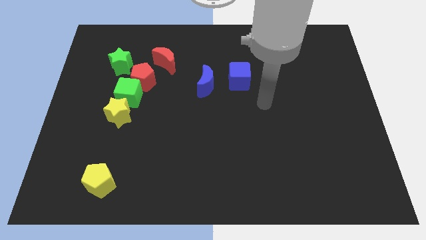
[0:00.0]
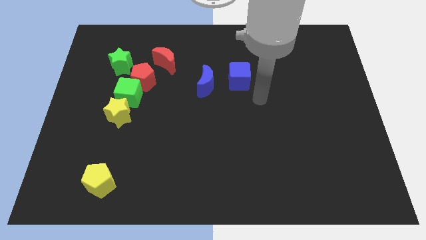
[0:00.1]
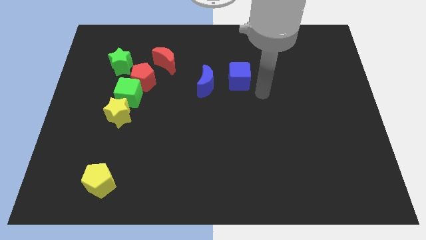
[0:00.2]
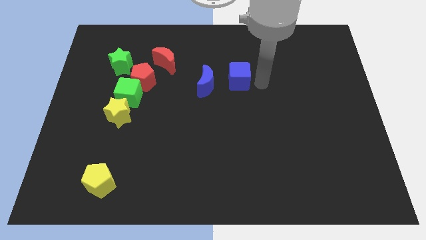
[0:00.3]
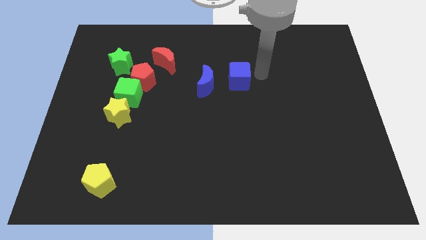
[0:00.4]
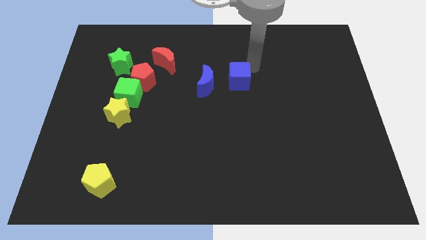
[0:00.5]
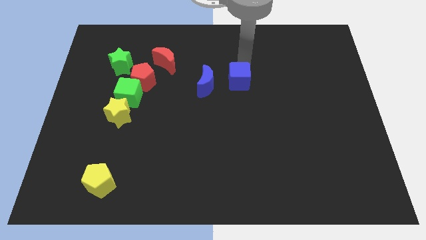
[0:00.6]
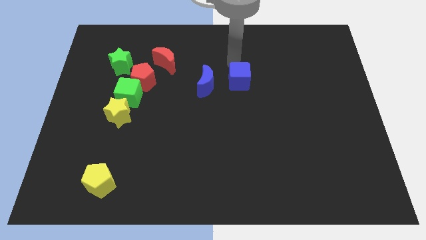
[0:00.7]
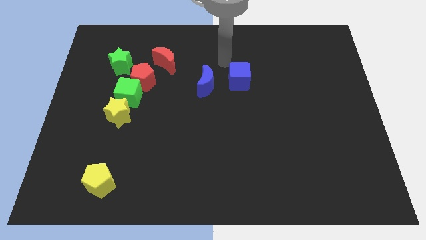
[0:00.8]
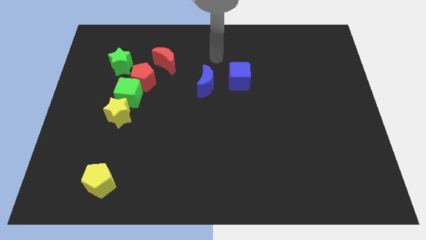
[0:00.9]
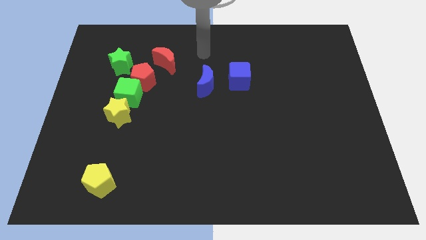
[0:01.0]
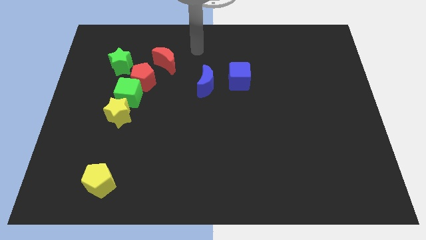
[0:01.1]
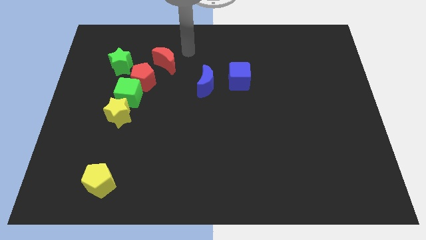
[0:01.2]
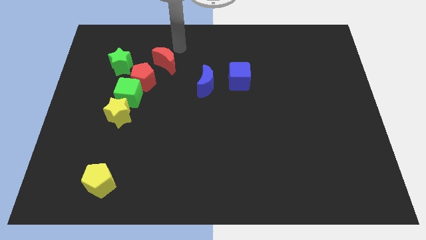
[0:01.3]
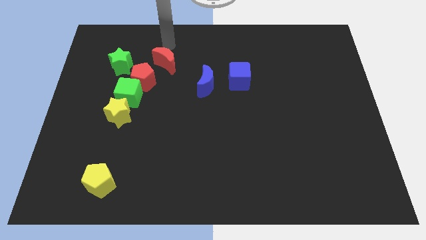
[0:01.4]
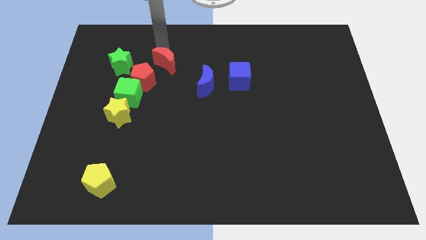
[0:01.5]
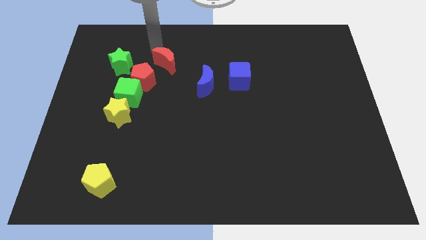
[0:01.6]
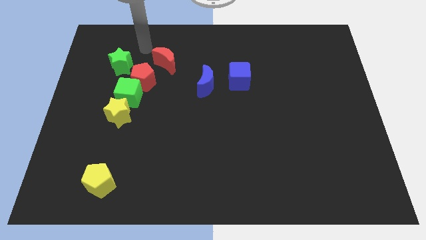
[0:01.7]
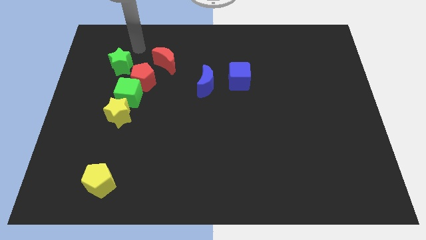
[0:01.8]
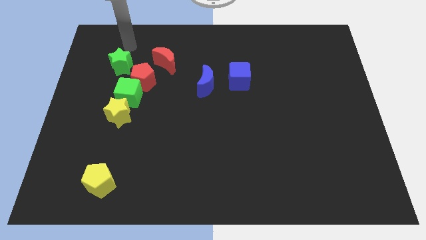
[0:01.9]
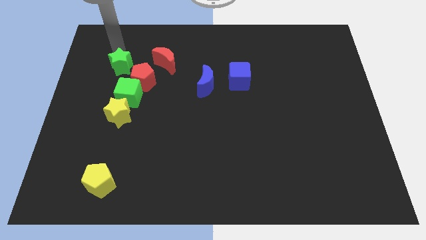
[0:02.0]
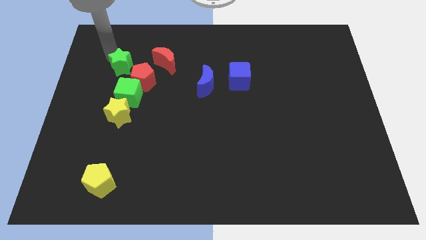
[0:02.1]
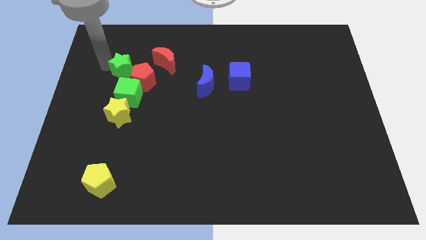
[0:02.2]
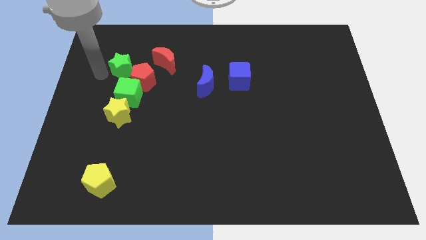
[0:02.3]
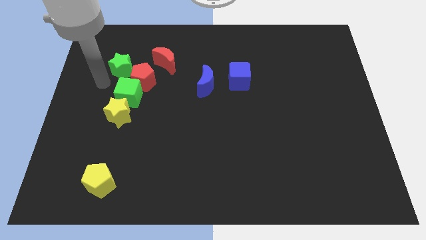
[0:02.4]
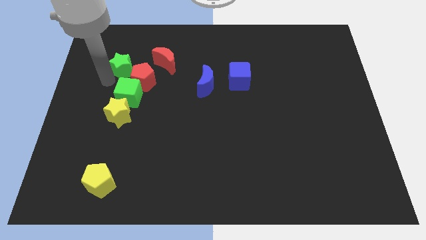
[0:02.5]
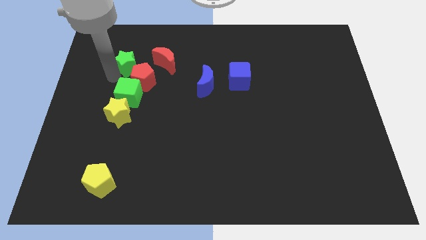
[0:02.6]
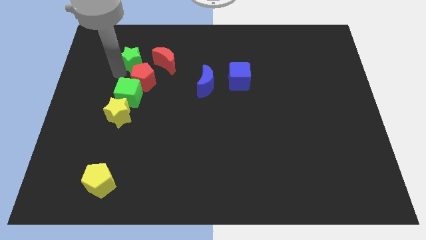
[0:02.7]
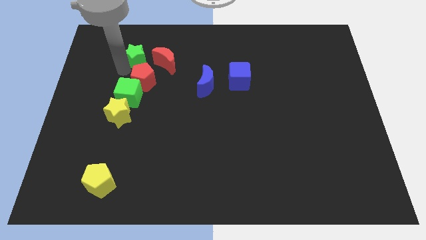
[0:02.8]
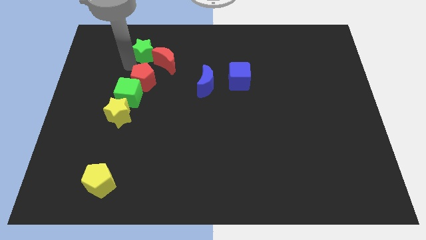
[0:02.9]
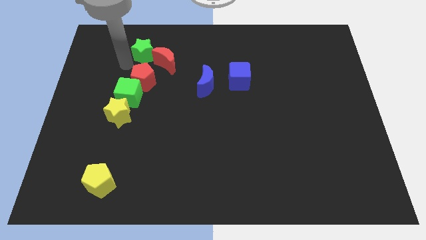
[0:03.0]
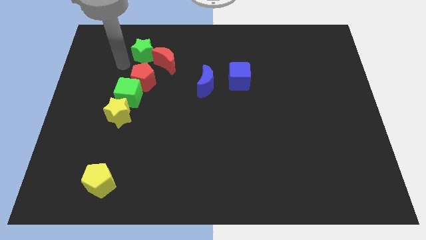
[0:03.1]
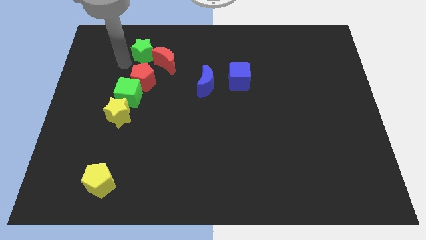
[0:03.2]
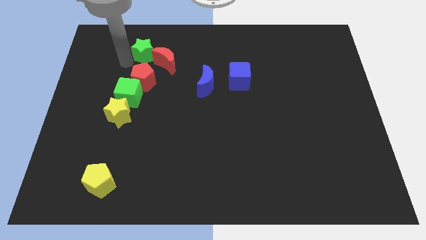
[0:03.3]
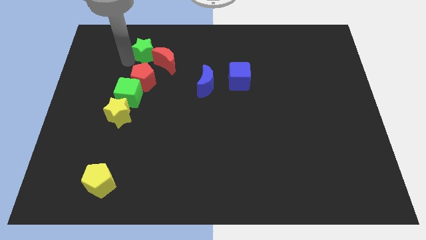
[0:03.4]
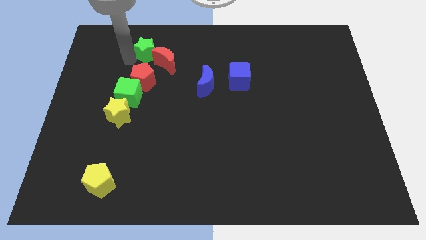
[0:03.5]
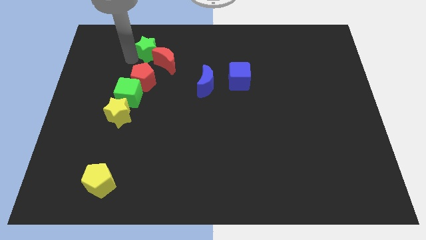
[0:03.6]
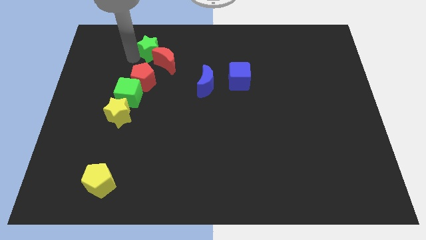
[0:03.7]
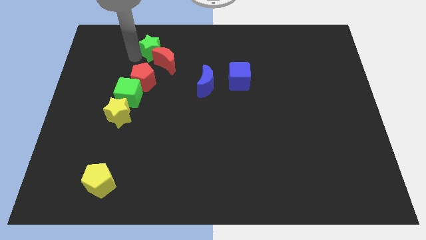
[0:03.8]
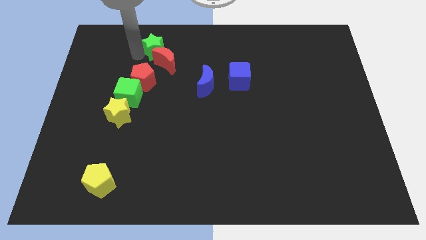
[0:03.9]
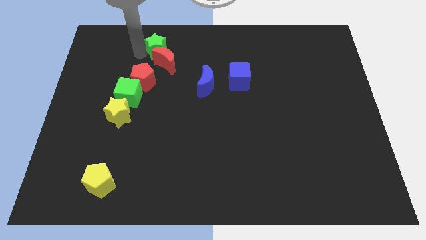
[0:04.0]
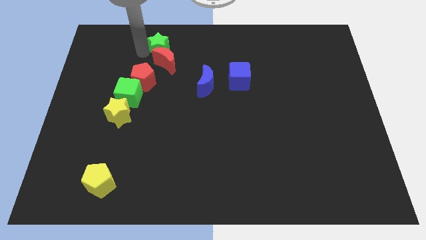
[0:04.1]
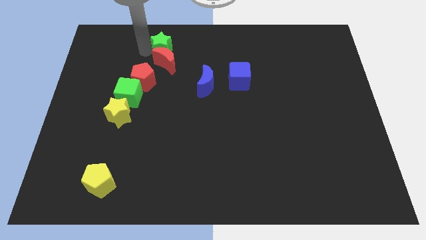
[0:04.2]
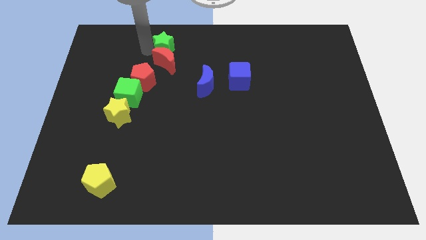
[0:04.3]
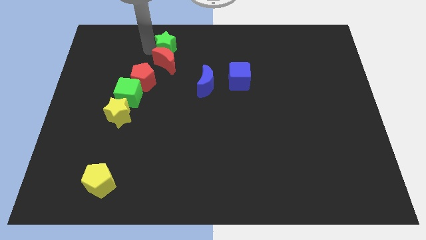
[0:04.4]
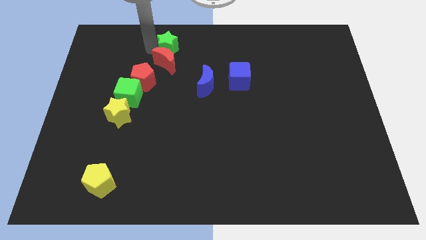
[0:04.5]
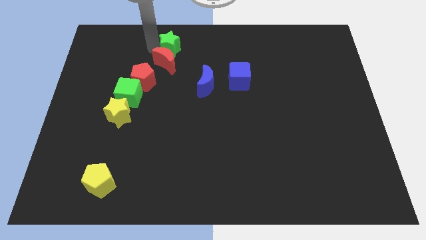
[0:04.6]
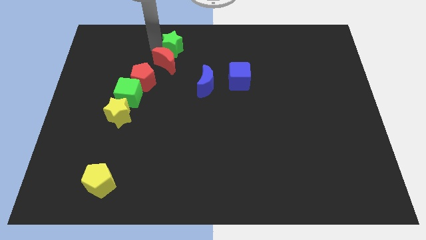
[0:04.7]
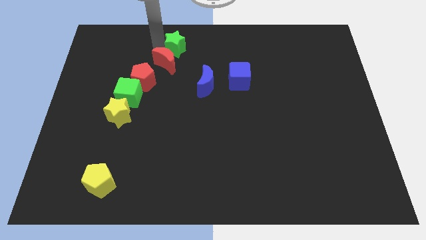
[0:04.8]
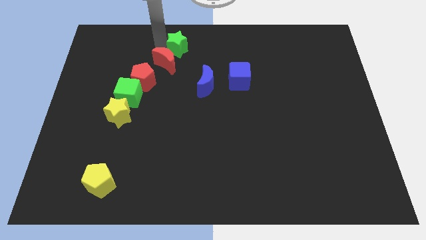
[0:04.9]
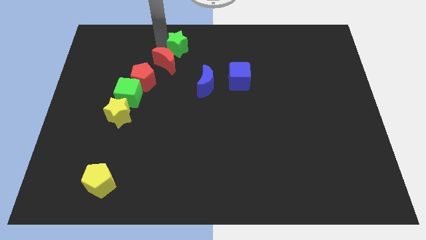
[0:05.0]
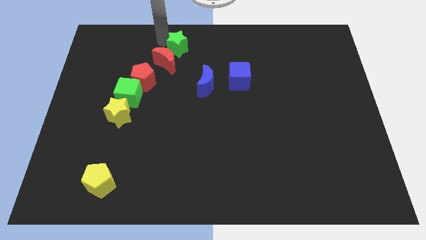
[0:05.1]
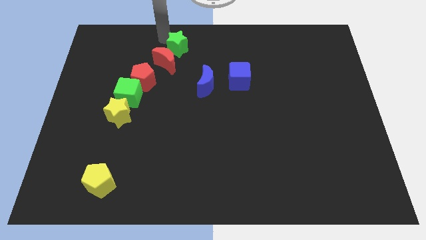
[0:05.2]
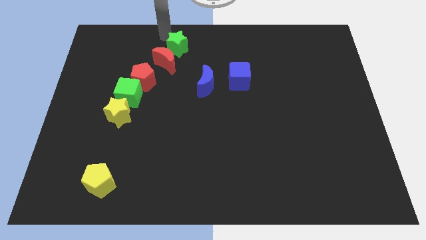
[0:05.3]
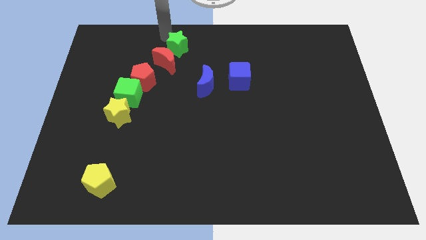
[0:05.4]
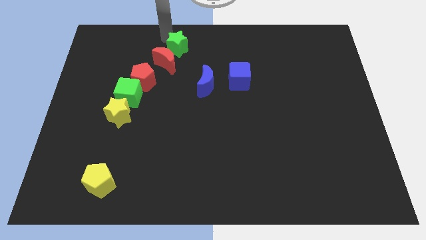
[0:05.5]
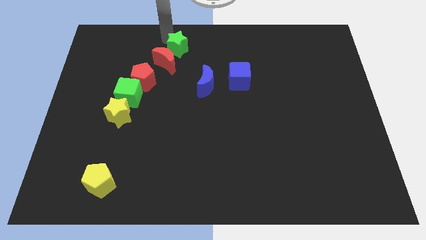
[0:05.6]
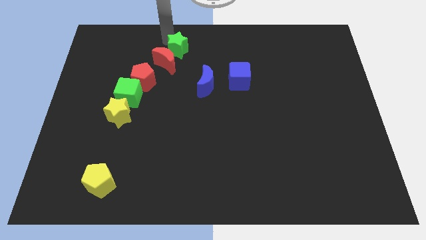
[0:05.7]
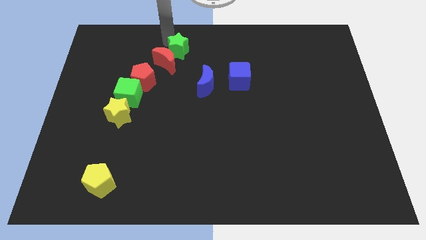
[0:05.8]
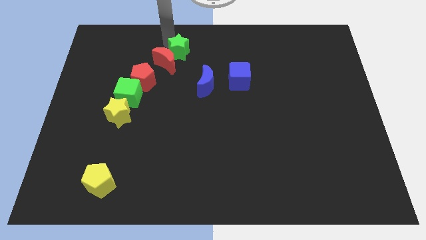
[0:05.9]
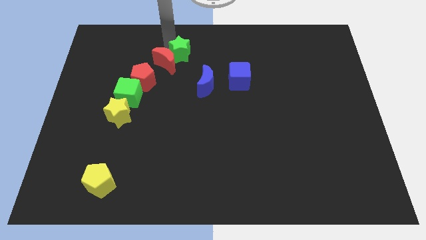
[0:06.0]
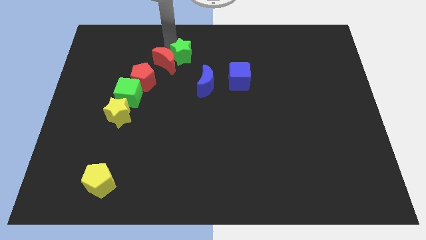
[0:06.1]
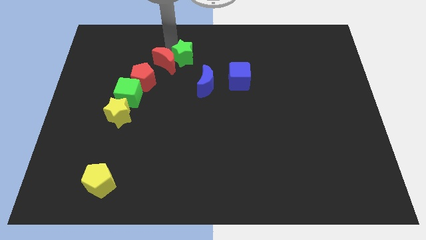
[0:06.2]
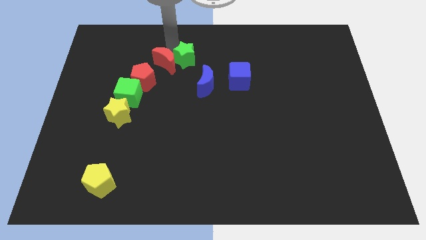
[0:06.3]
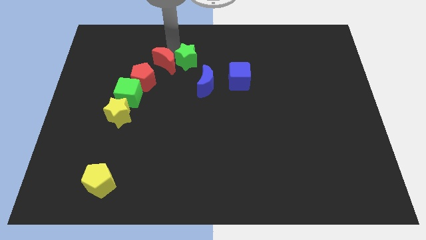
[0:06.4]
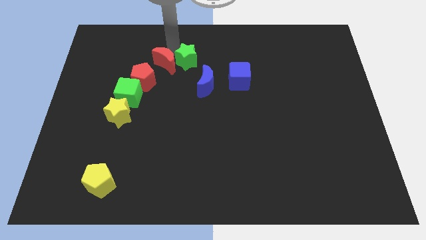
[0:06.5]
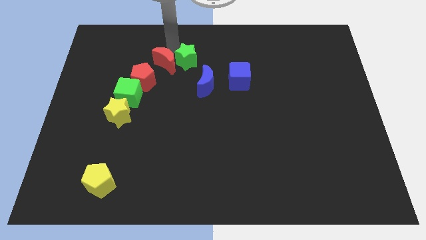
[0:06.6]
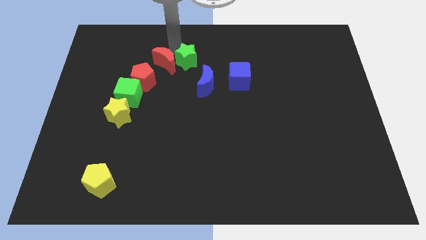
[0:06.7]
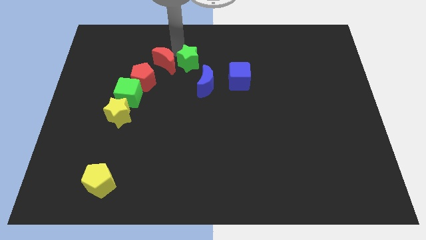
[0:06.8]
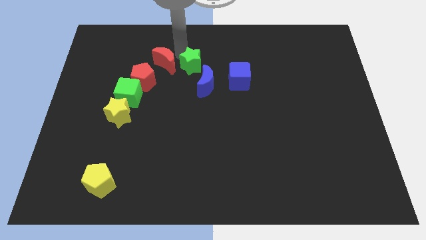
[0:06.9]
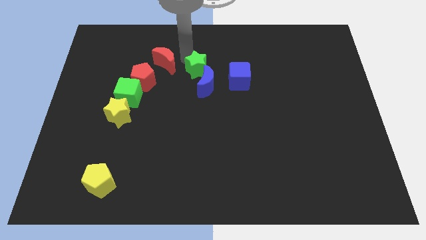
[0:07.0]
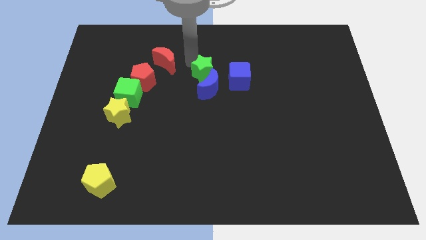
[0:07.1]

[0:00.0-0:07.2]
push the green star towards the blue moon
